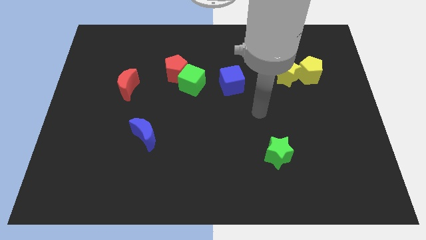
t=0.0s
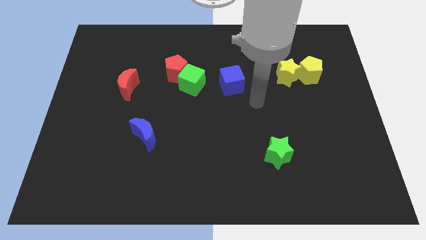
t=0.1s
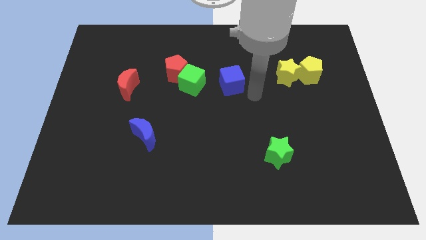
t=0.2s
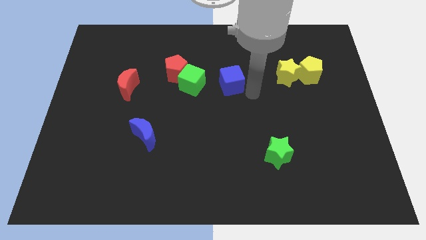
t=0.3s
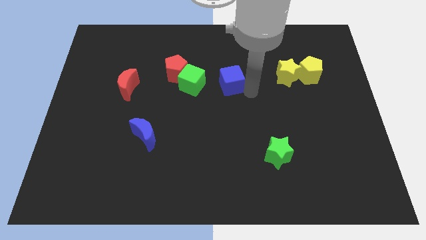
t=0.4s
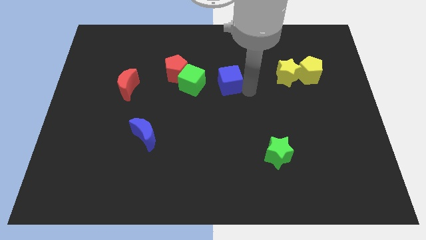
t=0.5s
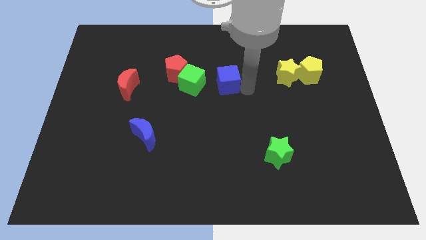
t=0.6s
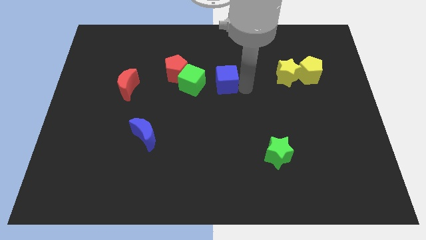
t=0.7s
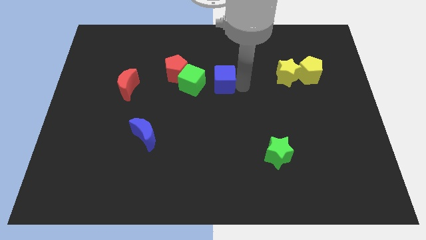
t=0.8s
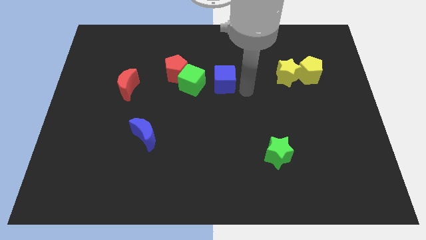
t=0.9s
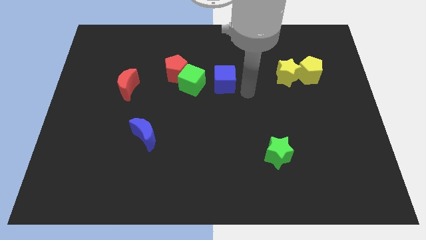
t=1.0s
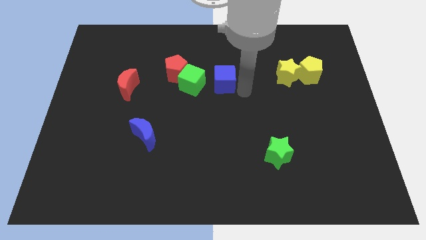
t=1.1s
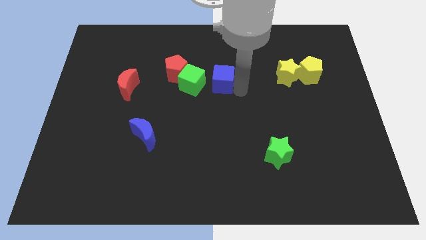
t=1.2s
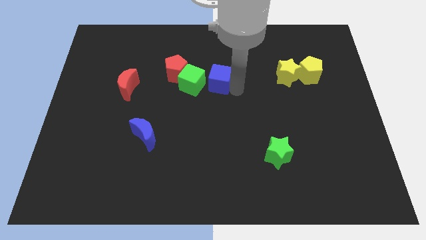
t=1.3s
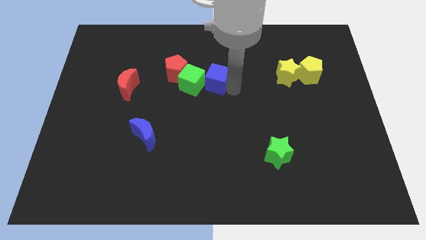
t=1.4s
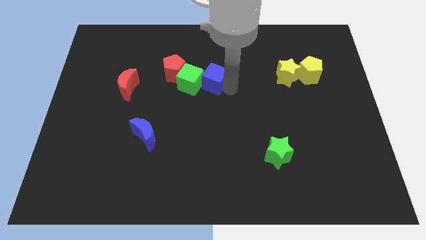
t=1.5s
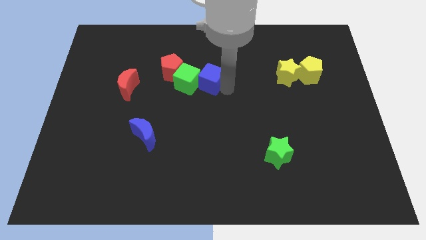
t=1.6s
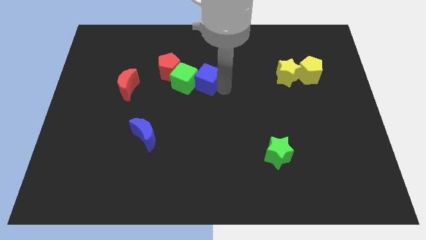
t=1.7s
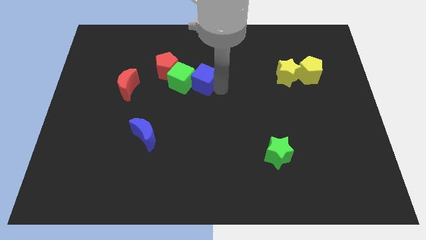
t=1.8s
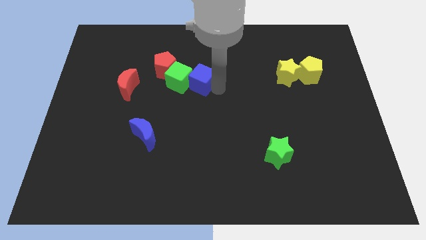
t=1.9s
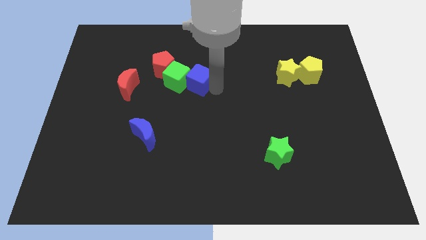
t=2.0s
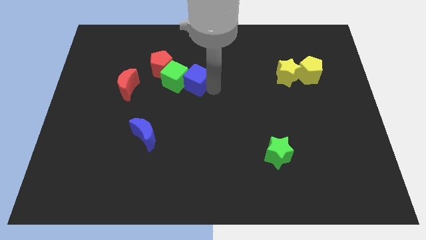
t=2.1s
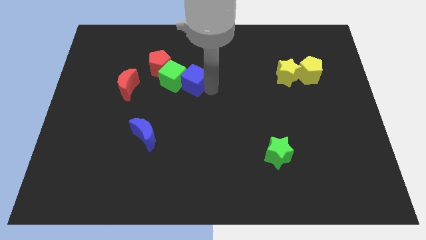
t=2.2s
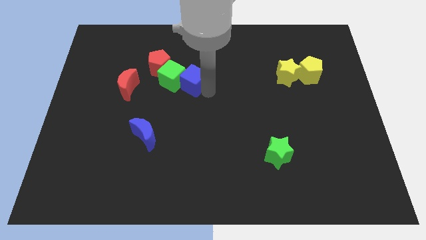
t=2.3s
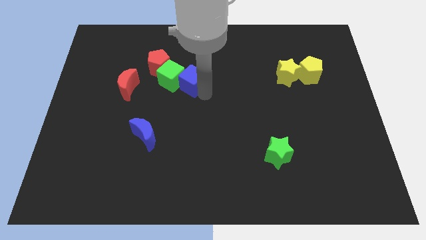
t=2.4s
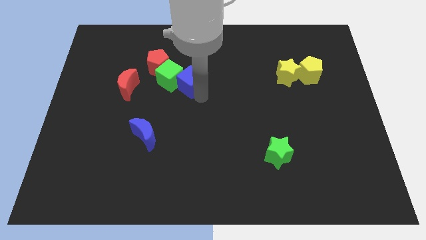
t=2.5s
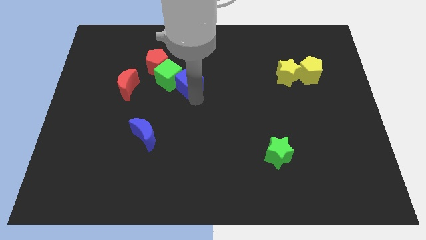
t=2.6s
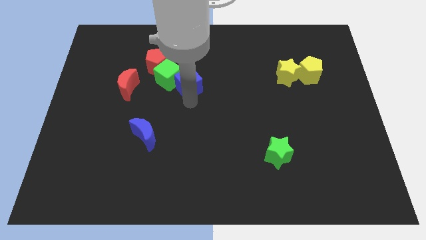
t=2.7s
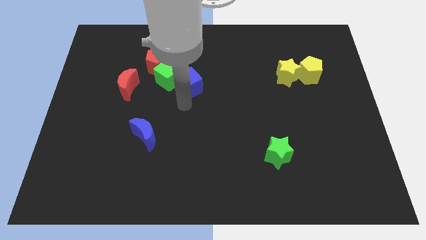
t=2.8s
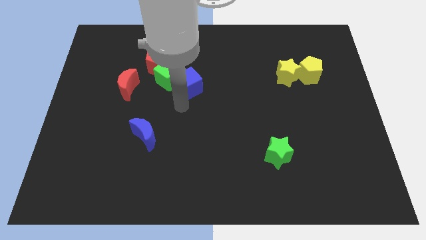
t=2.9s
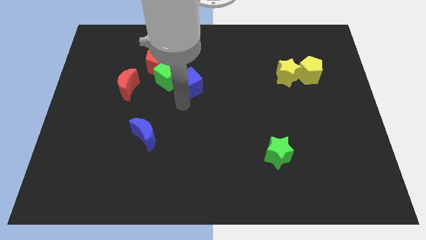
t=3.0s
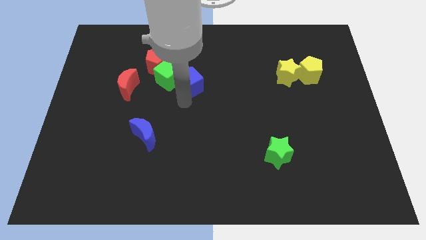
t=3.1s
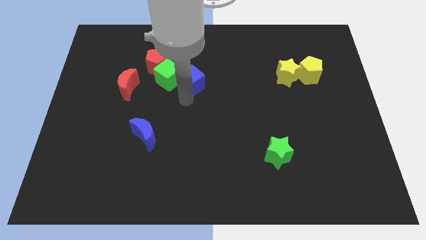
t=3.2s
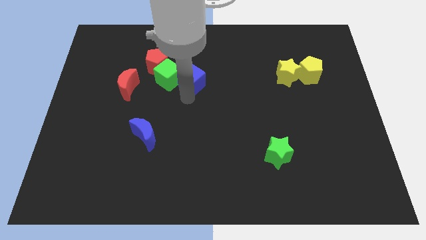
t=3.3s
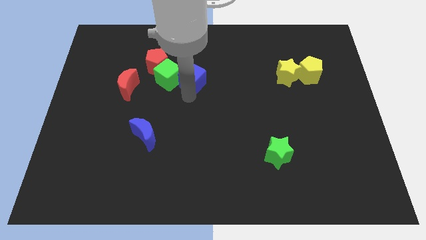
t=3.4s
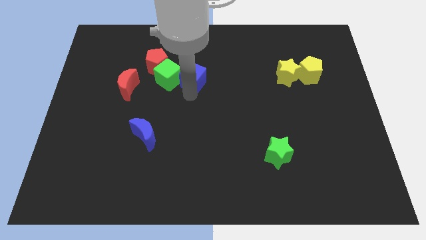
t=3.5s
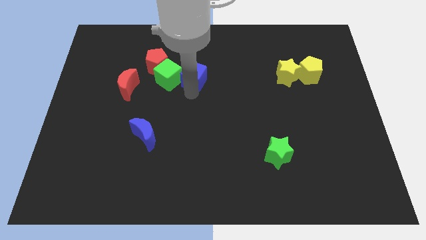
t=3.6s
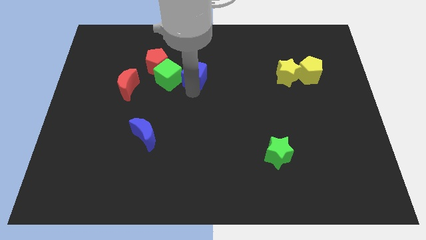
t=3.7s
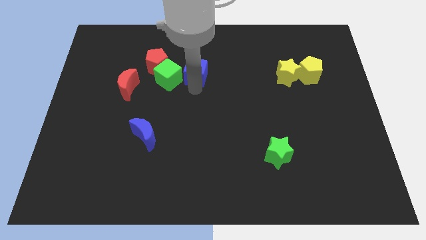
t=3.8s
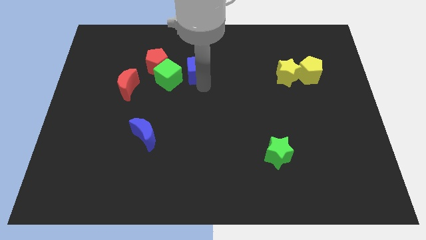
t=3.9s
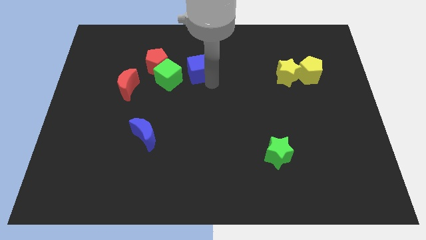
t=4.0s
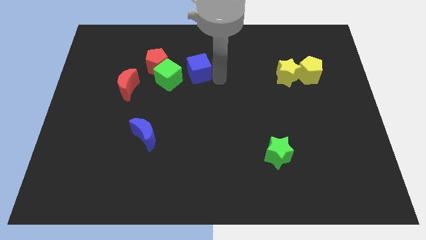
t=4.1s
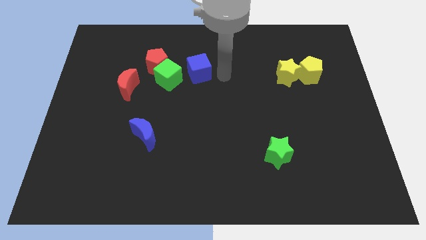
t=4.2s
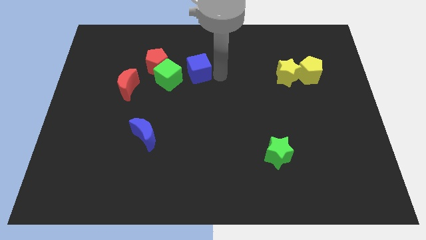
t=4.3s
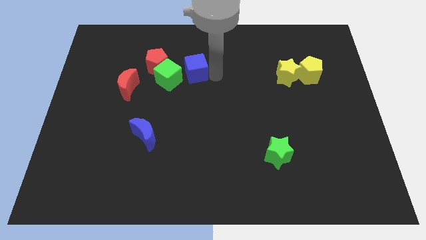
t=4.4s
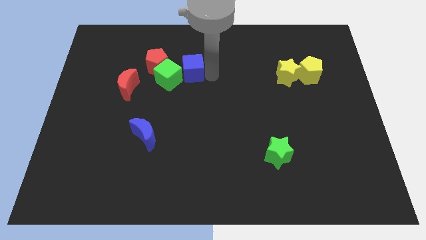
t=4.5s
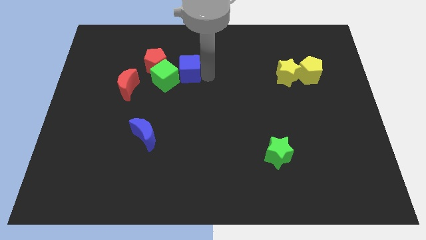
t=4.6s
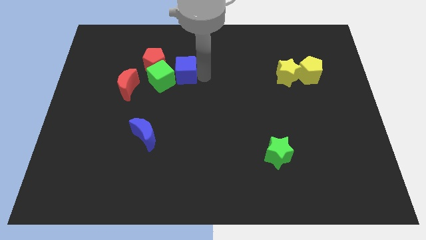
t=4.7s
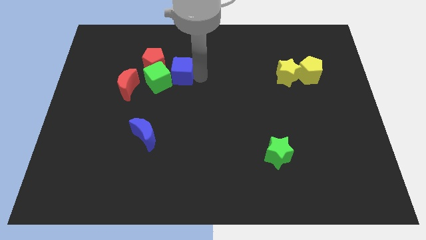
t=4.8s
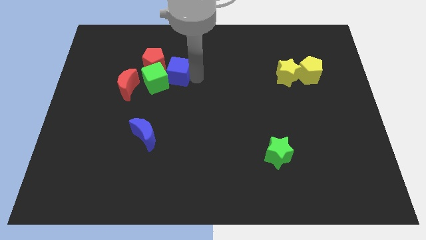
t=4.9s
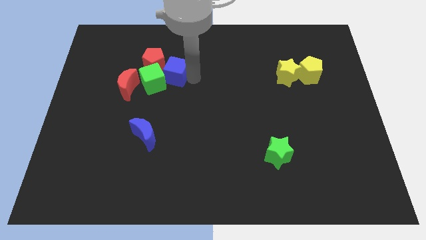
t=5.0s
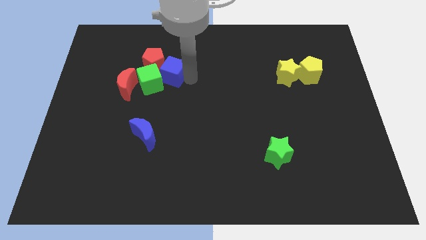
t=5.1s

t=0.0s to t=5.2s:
slide the blue cube close to the red pentagon

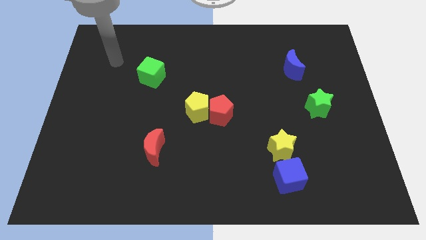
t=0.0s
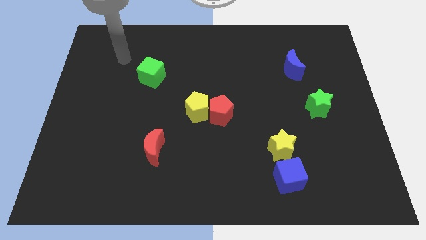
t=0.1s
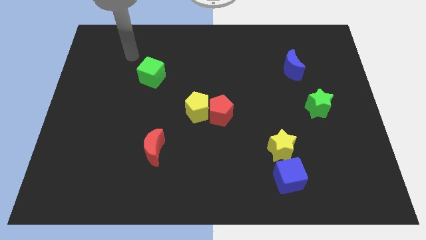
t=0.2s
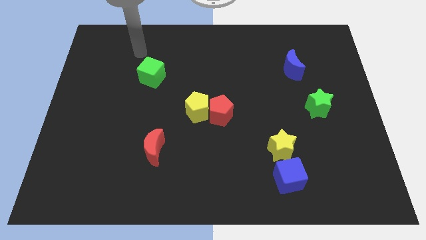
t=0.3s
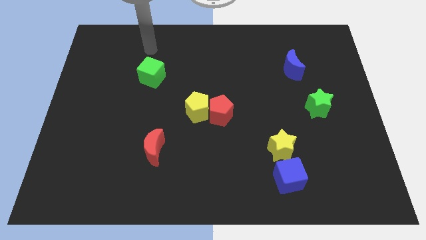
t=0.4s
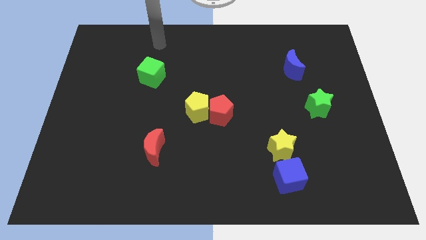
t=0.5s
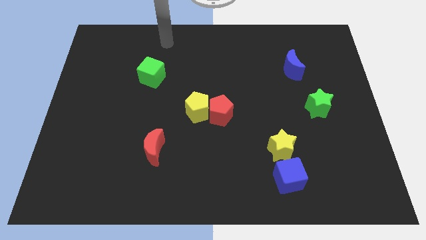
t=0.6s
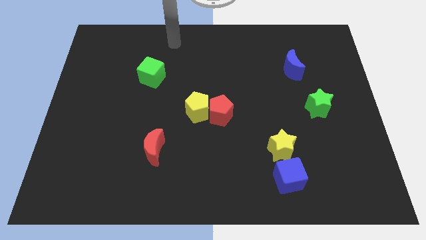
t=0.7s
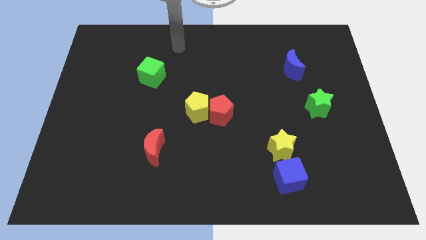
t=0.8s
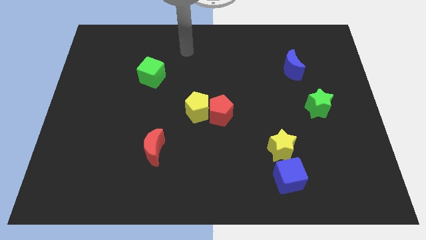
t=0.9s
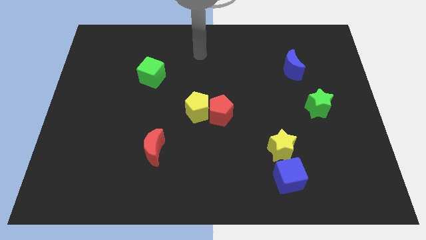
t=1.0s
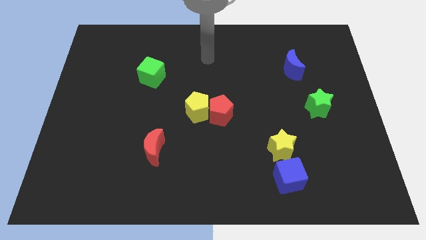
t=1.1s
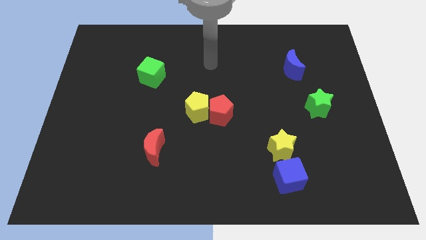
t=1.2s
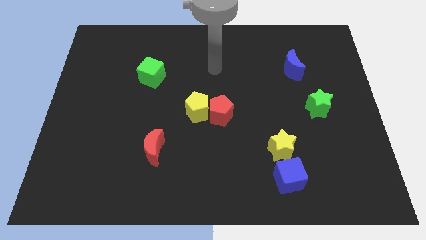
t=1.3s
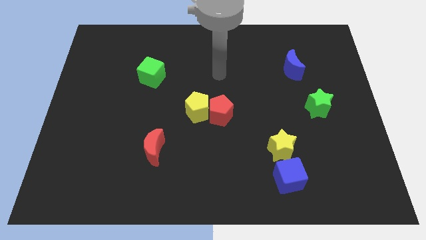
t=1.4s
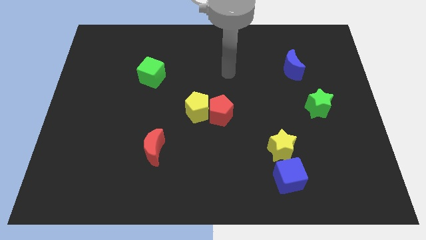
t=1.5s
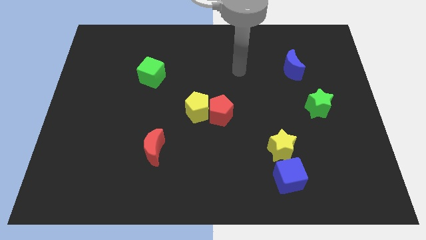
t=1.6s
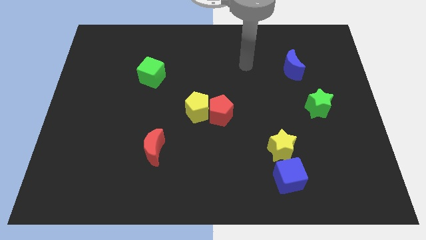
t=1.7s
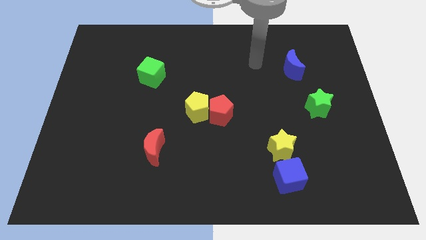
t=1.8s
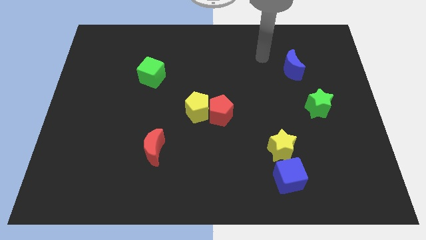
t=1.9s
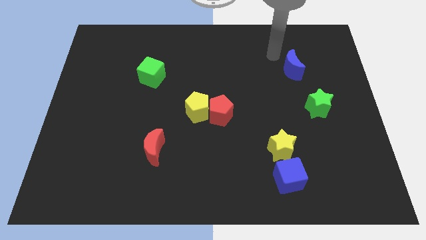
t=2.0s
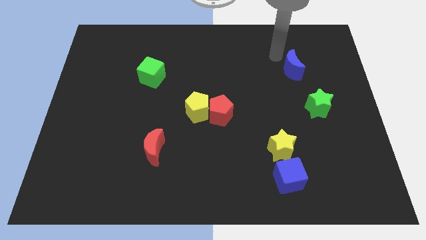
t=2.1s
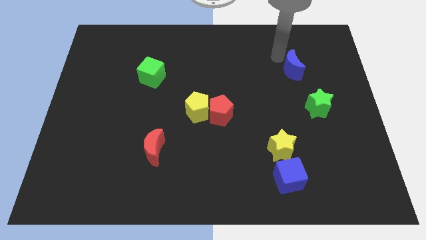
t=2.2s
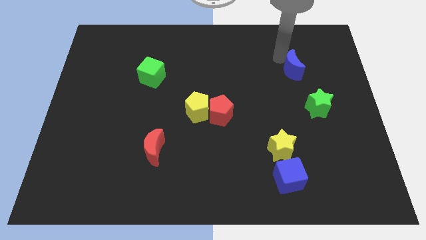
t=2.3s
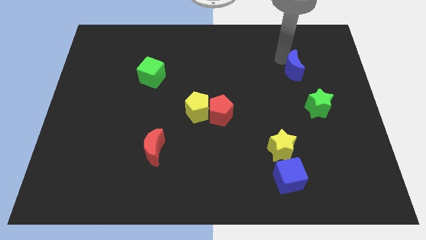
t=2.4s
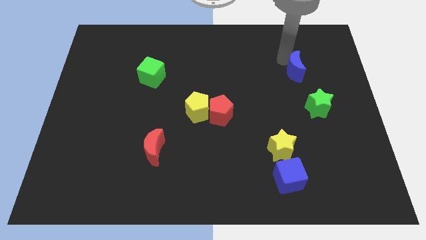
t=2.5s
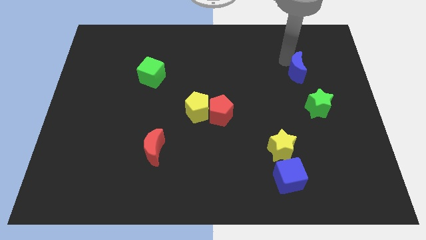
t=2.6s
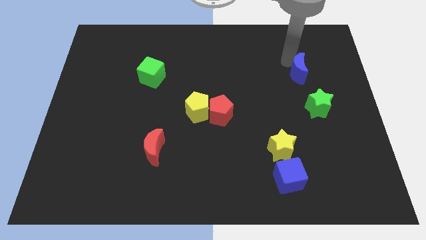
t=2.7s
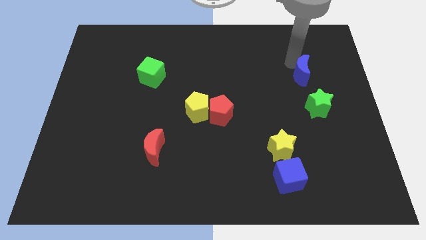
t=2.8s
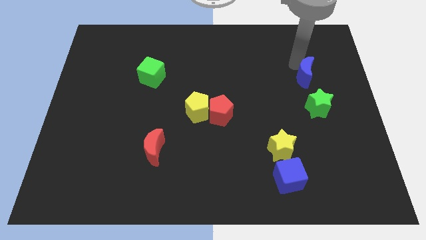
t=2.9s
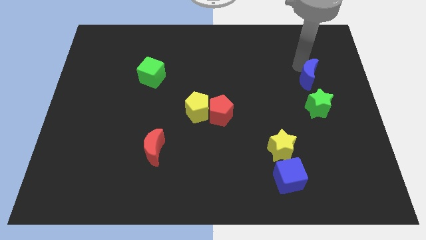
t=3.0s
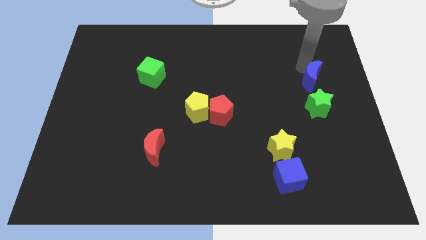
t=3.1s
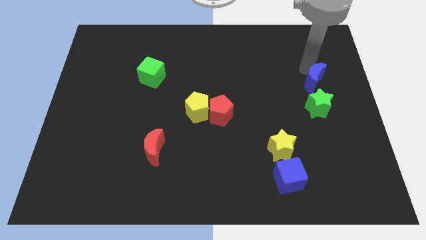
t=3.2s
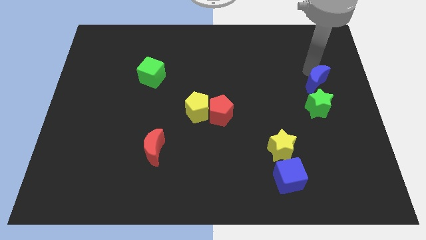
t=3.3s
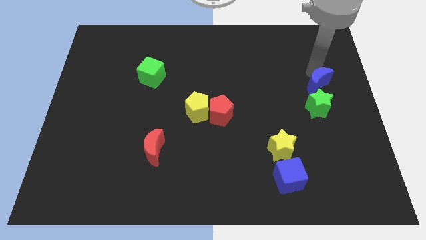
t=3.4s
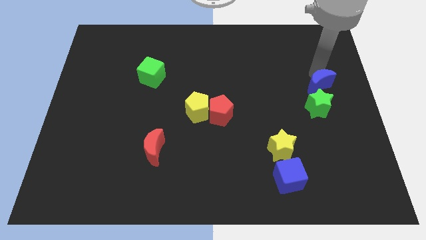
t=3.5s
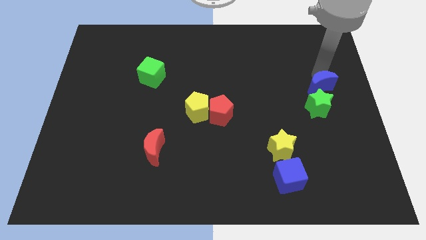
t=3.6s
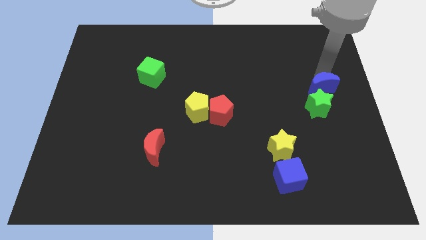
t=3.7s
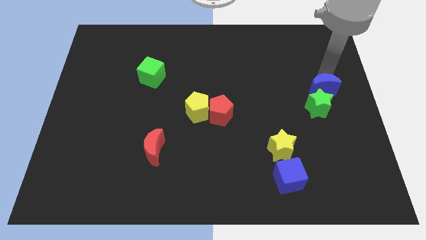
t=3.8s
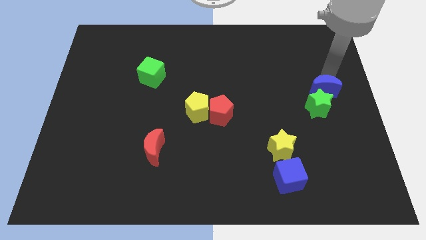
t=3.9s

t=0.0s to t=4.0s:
push the blue moon towards the green star
